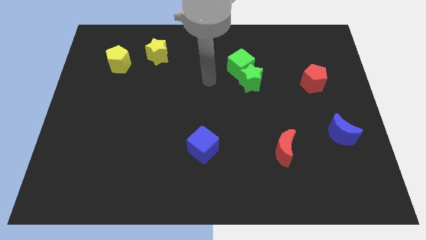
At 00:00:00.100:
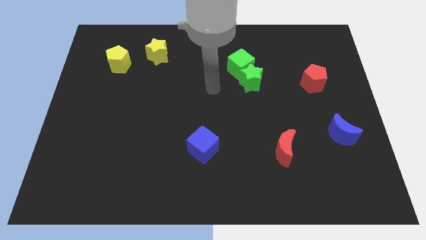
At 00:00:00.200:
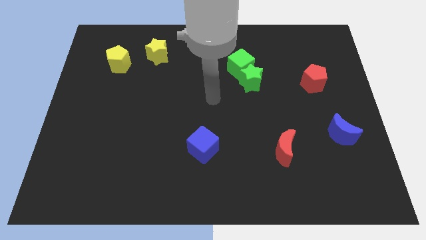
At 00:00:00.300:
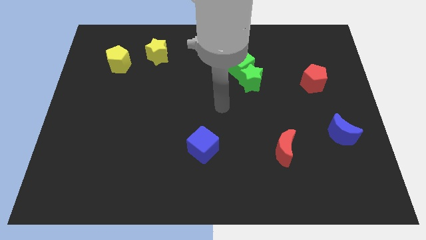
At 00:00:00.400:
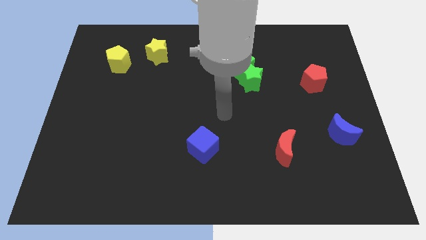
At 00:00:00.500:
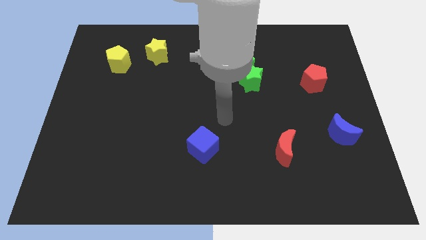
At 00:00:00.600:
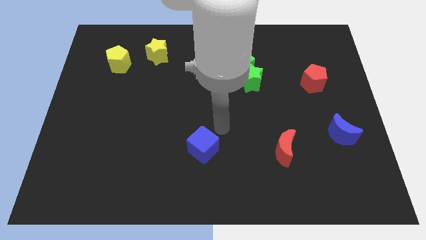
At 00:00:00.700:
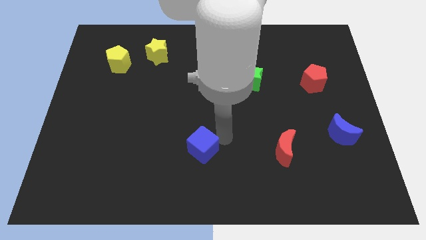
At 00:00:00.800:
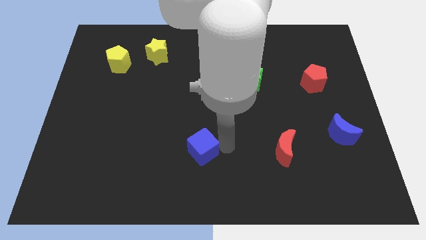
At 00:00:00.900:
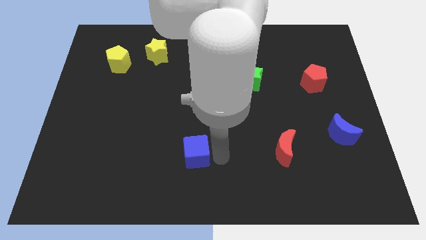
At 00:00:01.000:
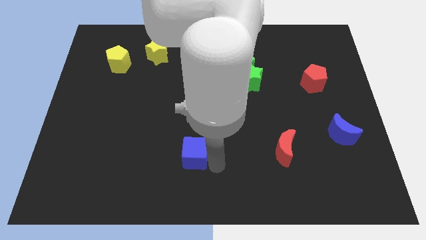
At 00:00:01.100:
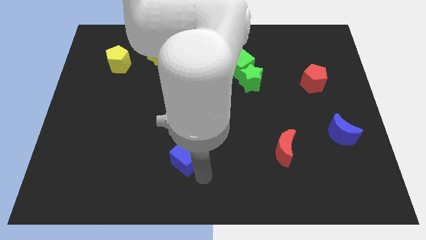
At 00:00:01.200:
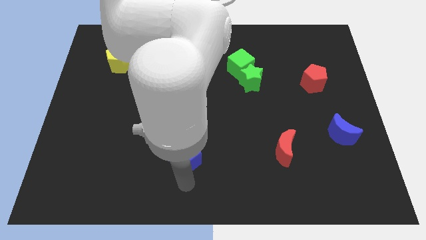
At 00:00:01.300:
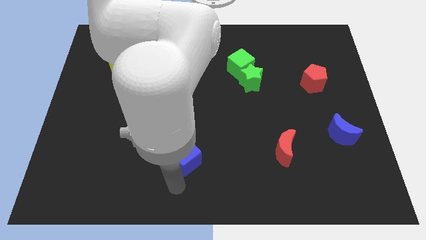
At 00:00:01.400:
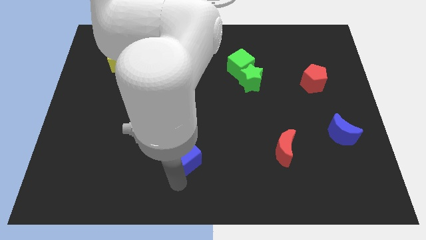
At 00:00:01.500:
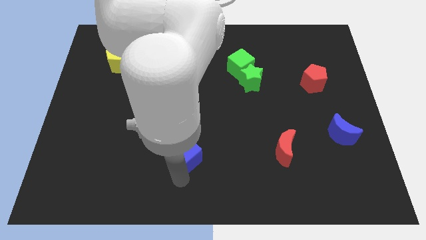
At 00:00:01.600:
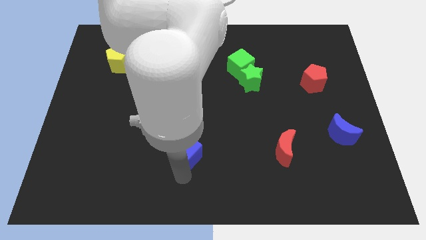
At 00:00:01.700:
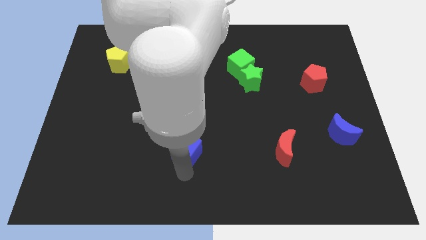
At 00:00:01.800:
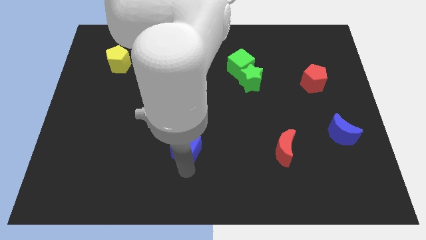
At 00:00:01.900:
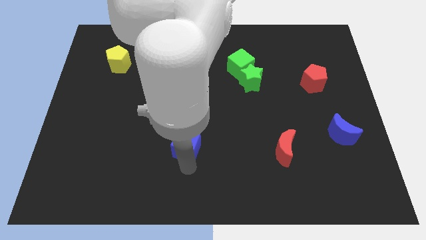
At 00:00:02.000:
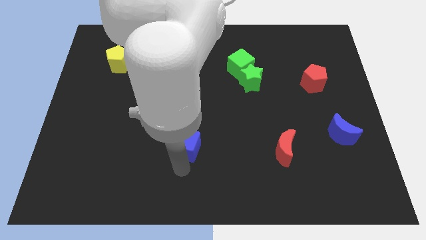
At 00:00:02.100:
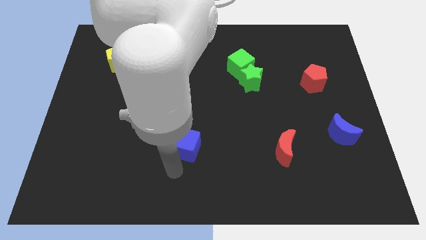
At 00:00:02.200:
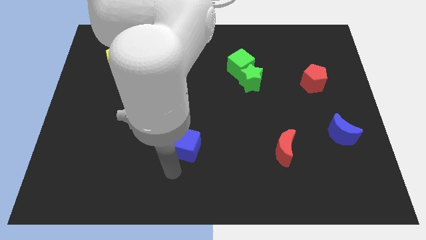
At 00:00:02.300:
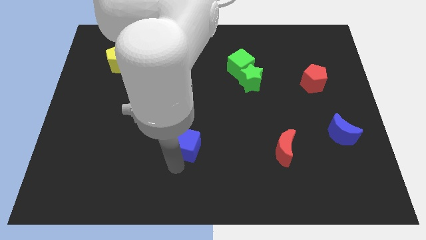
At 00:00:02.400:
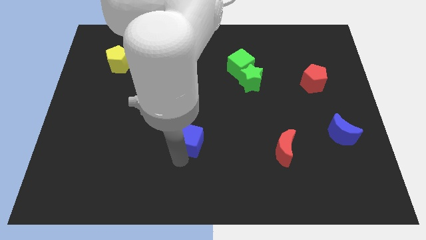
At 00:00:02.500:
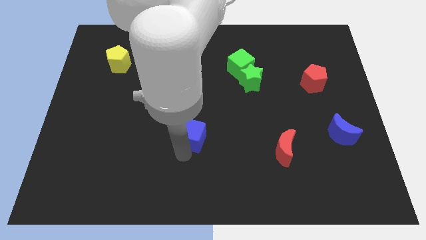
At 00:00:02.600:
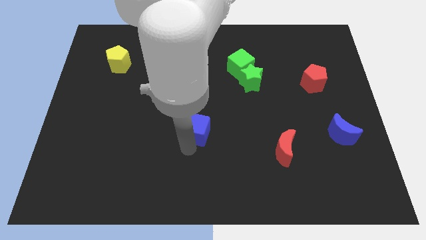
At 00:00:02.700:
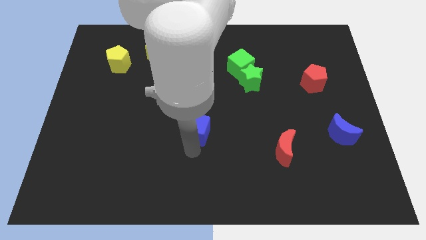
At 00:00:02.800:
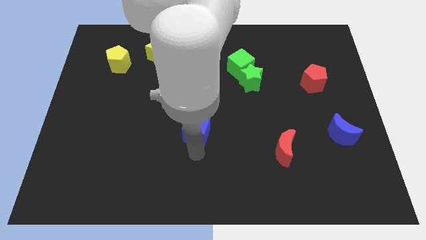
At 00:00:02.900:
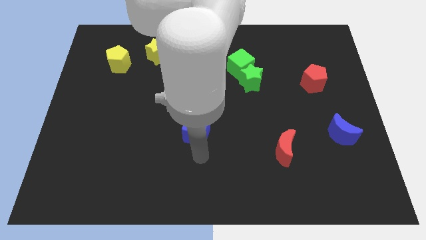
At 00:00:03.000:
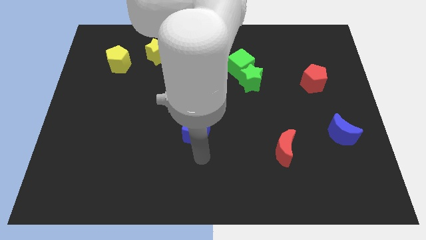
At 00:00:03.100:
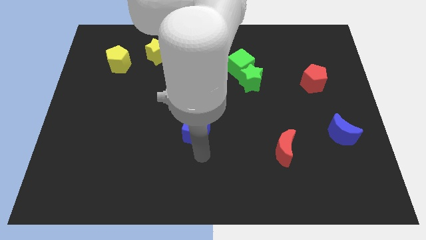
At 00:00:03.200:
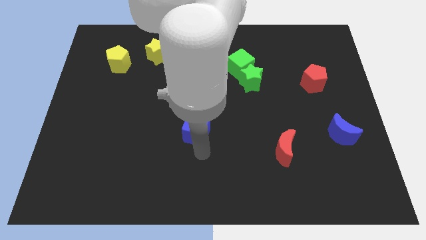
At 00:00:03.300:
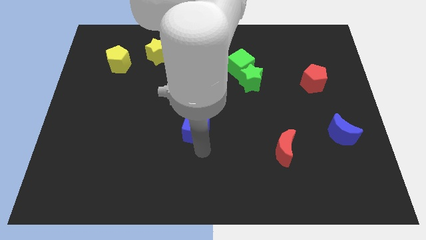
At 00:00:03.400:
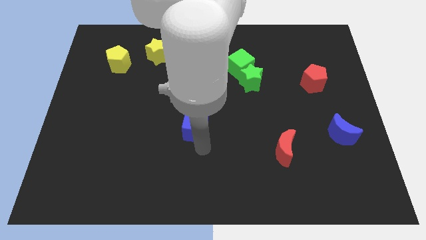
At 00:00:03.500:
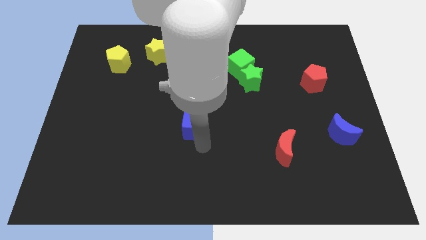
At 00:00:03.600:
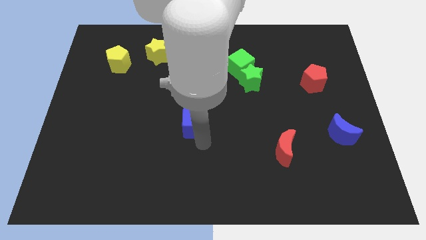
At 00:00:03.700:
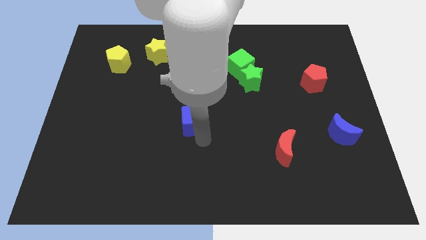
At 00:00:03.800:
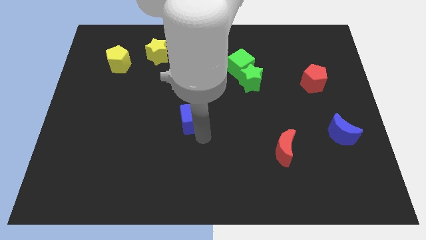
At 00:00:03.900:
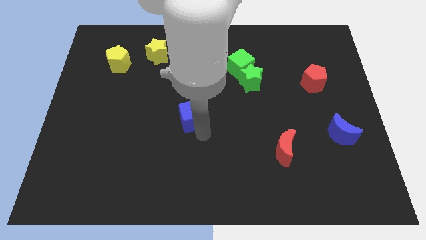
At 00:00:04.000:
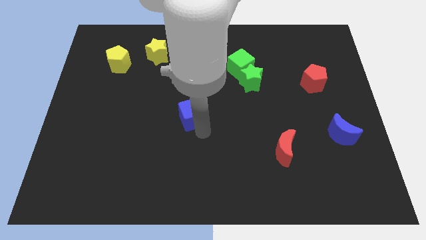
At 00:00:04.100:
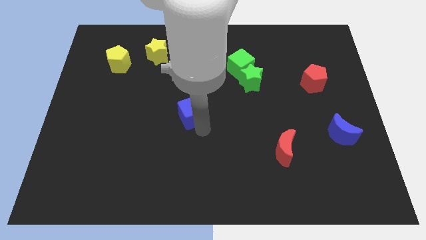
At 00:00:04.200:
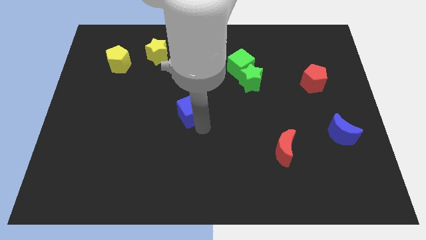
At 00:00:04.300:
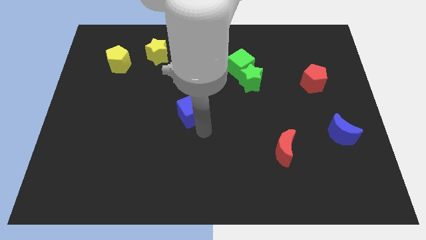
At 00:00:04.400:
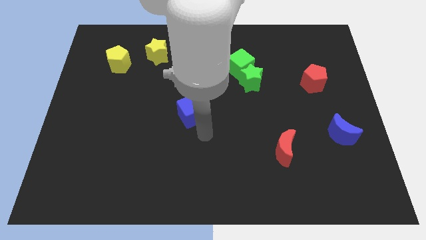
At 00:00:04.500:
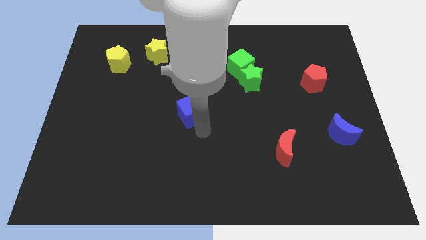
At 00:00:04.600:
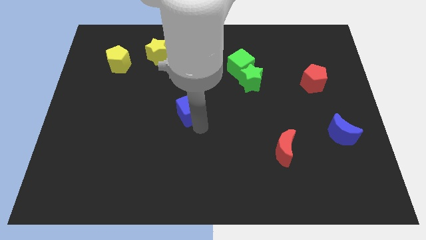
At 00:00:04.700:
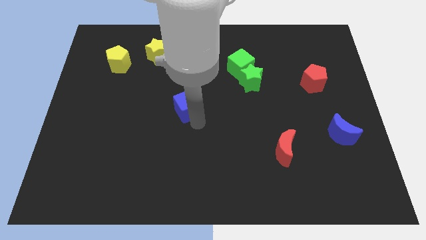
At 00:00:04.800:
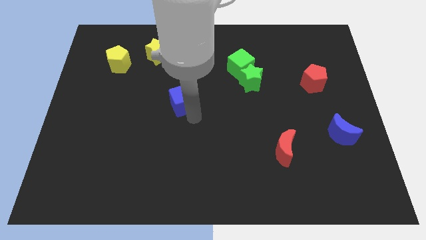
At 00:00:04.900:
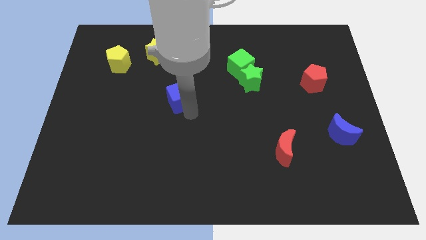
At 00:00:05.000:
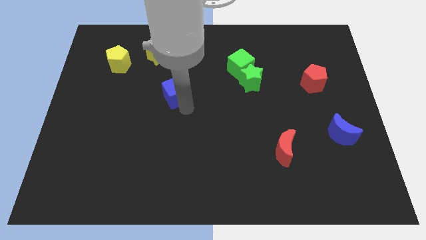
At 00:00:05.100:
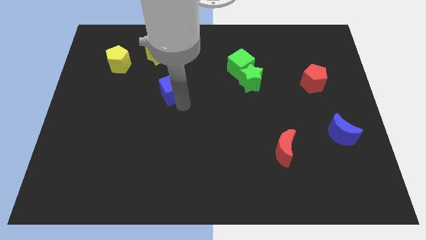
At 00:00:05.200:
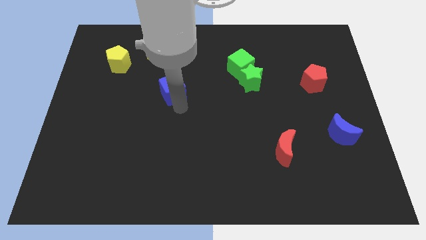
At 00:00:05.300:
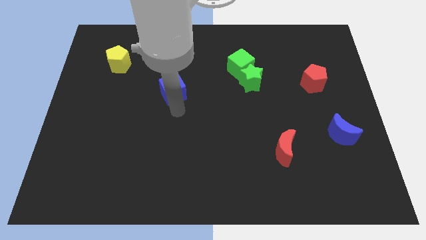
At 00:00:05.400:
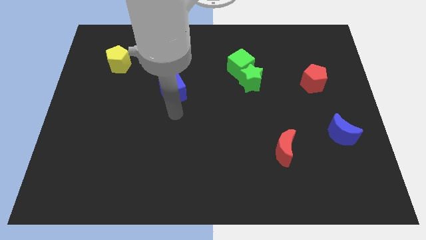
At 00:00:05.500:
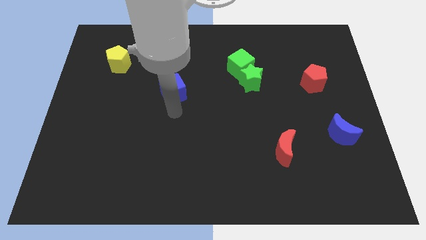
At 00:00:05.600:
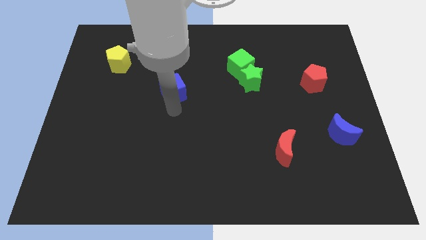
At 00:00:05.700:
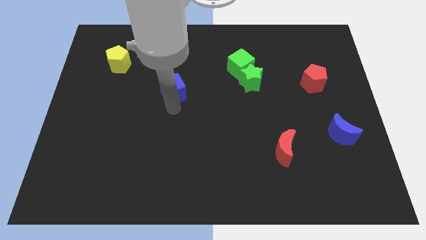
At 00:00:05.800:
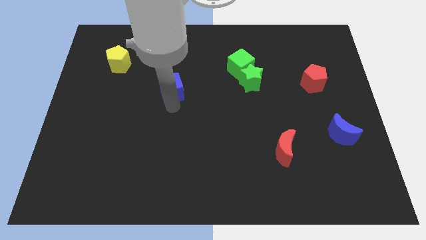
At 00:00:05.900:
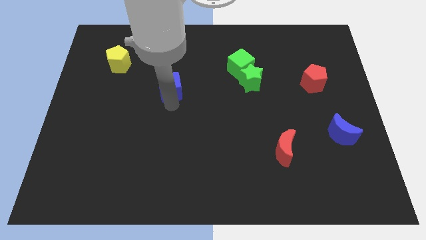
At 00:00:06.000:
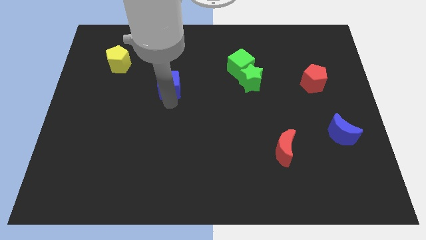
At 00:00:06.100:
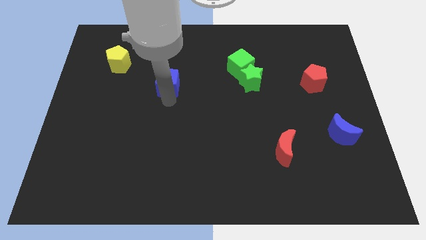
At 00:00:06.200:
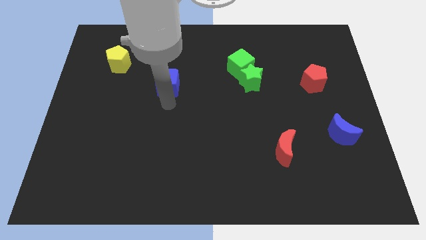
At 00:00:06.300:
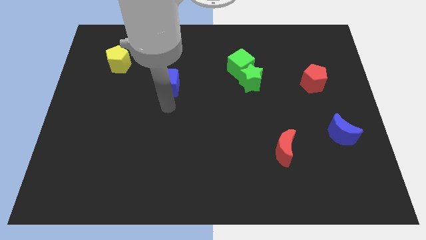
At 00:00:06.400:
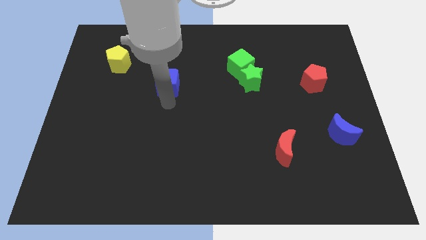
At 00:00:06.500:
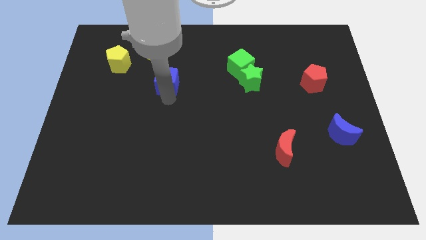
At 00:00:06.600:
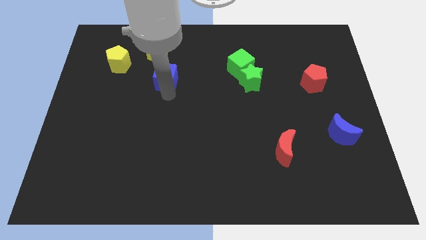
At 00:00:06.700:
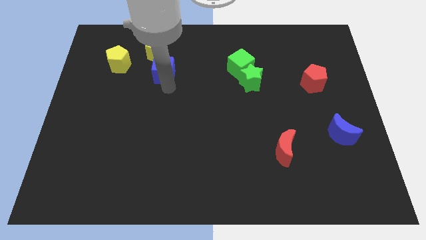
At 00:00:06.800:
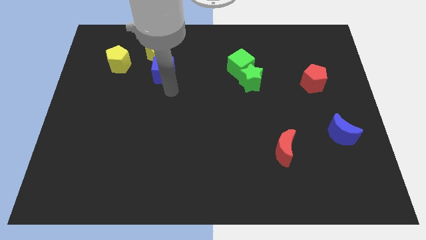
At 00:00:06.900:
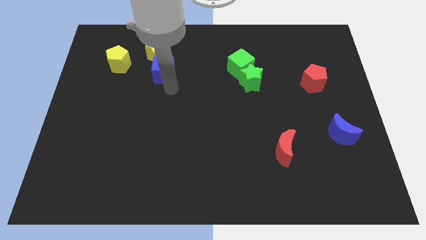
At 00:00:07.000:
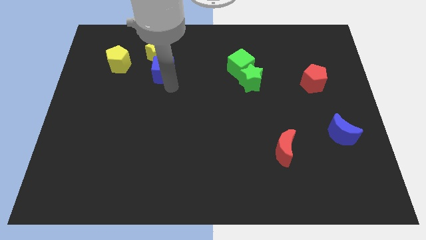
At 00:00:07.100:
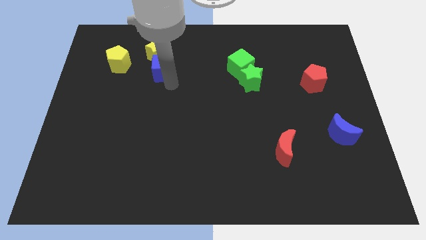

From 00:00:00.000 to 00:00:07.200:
push the blue cube to the yellow star
